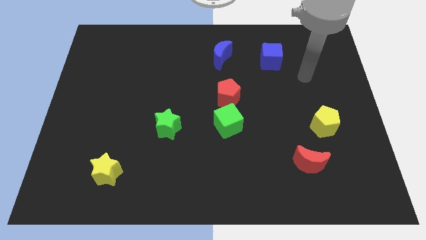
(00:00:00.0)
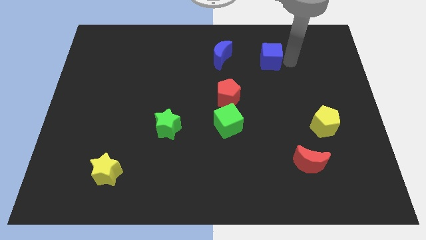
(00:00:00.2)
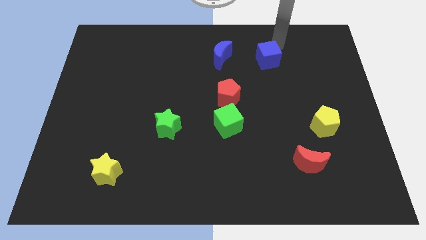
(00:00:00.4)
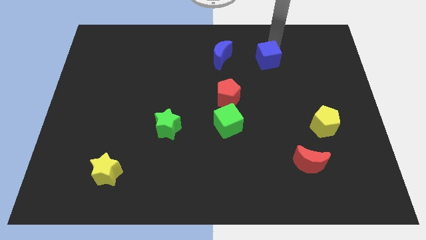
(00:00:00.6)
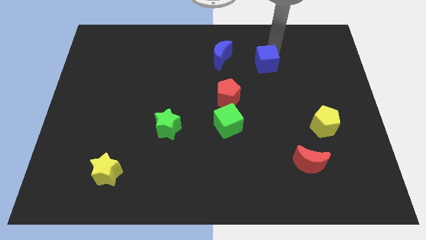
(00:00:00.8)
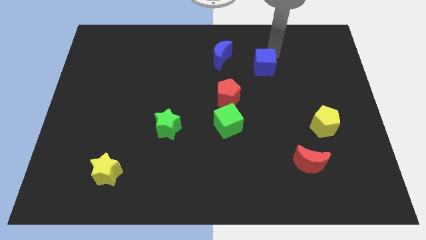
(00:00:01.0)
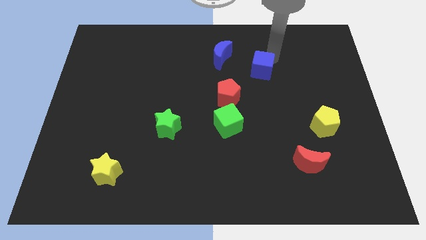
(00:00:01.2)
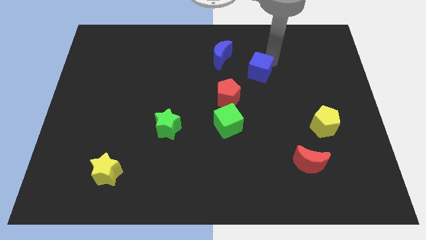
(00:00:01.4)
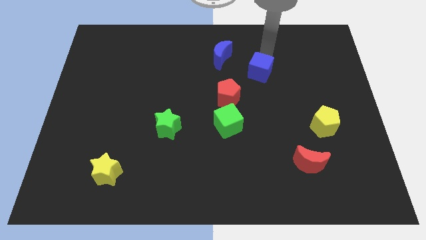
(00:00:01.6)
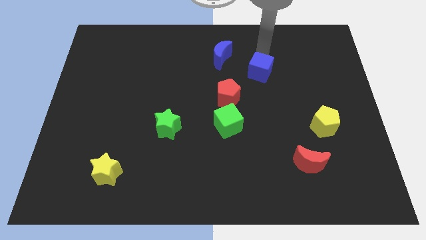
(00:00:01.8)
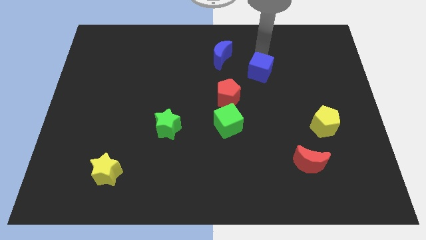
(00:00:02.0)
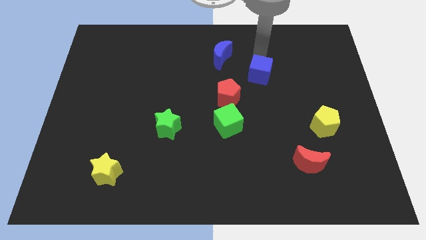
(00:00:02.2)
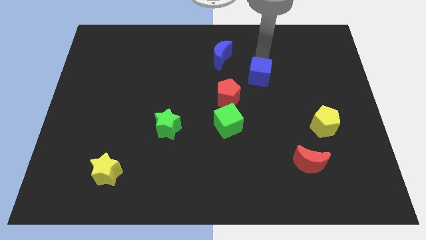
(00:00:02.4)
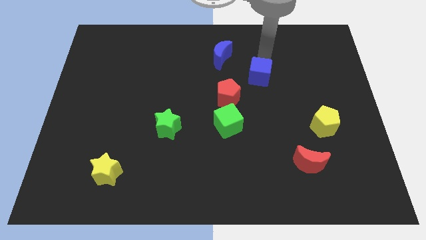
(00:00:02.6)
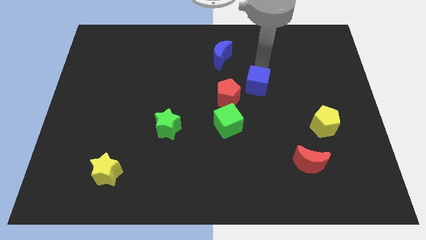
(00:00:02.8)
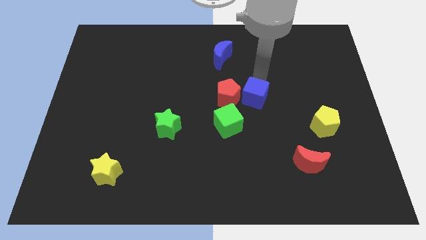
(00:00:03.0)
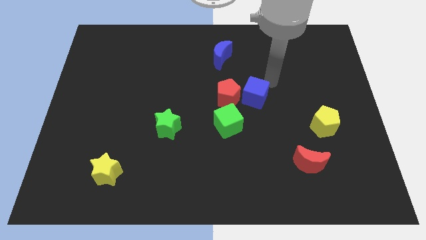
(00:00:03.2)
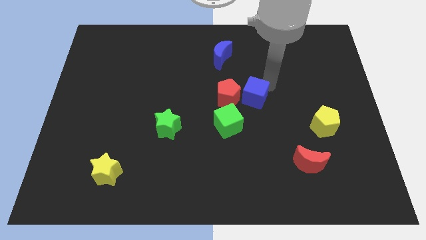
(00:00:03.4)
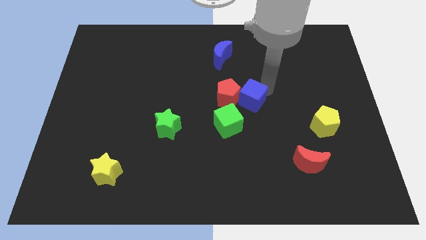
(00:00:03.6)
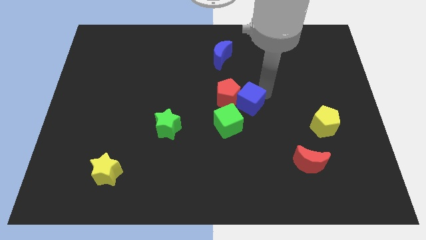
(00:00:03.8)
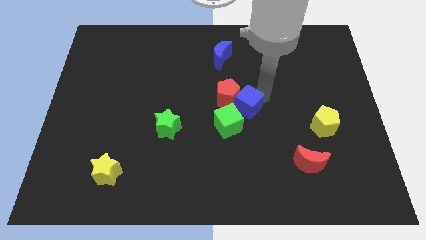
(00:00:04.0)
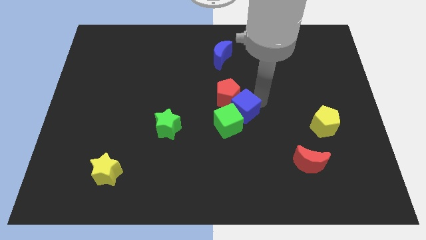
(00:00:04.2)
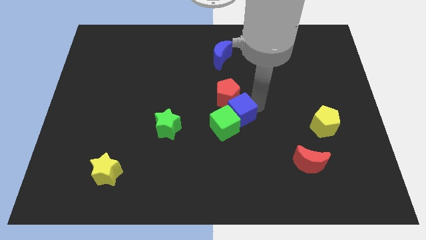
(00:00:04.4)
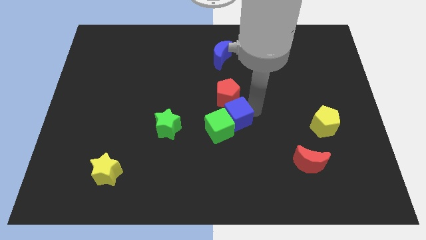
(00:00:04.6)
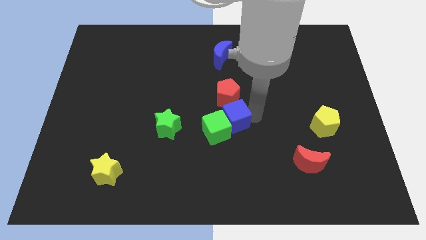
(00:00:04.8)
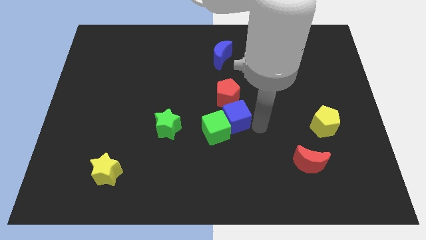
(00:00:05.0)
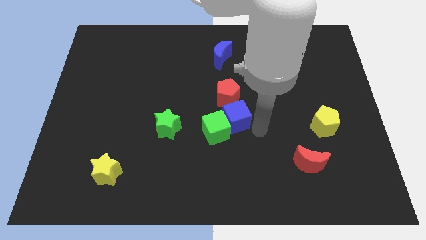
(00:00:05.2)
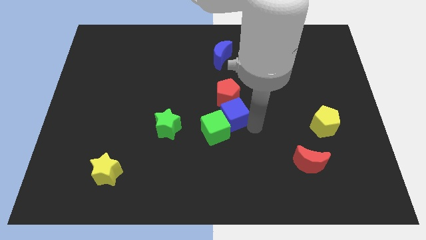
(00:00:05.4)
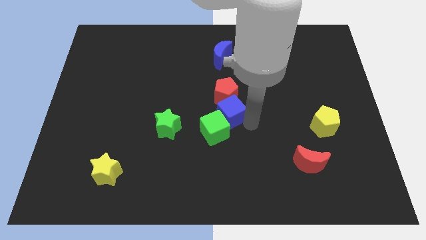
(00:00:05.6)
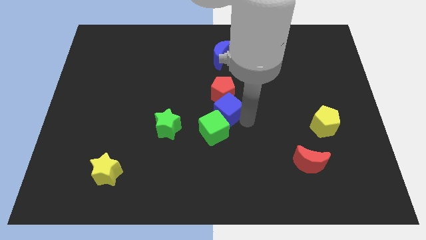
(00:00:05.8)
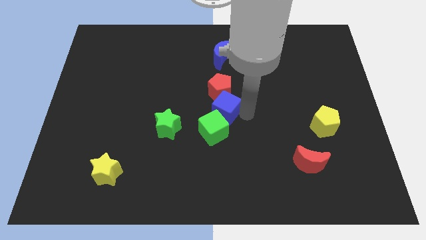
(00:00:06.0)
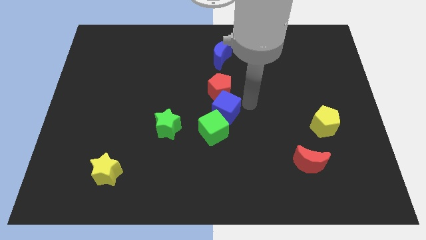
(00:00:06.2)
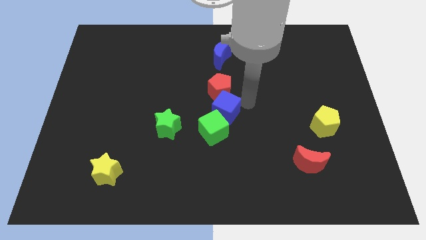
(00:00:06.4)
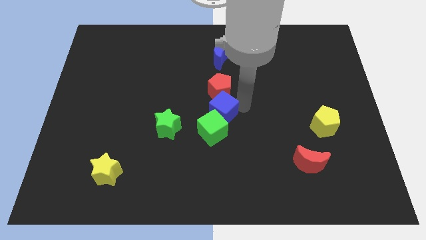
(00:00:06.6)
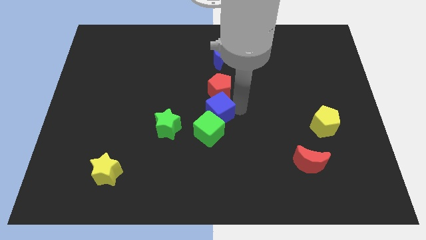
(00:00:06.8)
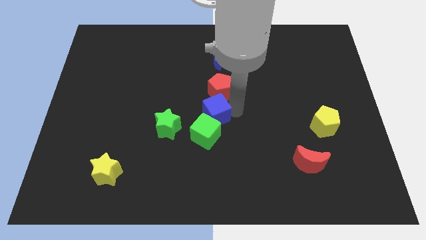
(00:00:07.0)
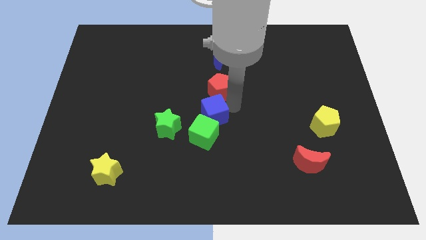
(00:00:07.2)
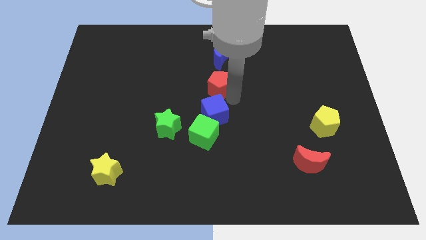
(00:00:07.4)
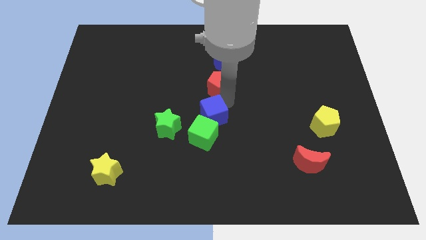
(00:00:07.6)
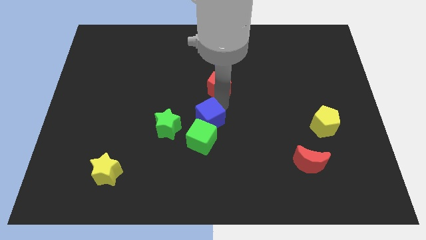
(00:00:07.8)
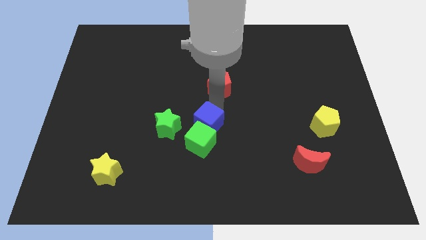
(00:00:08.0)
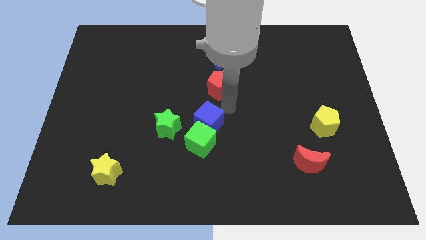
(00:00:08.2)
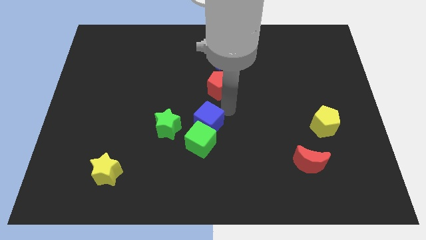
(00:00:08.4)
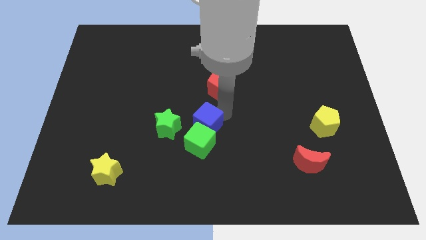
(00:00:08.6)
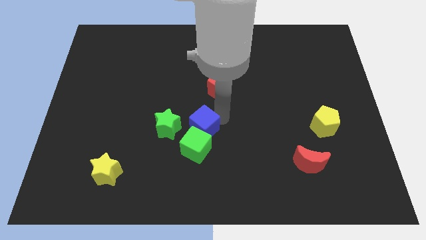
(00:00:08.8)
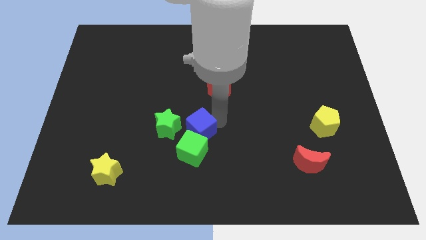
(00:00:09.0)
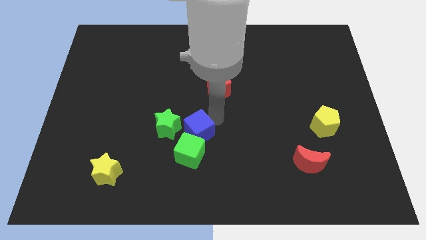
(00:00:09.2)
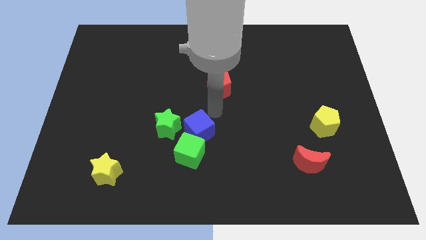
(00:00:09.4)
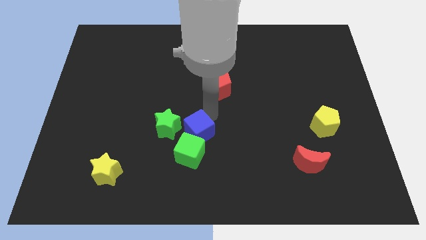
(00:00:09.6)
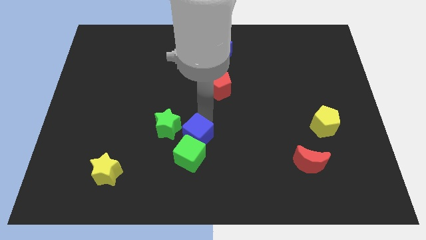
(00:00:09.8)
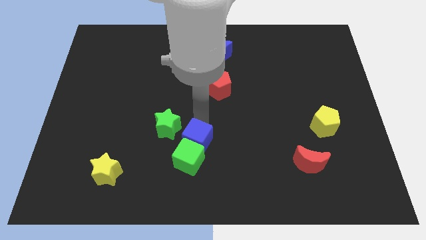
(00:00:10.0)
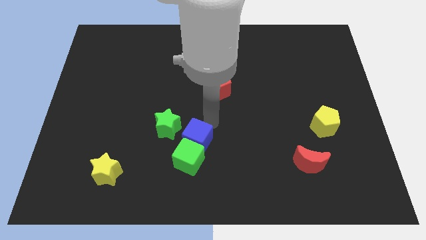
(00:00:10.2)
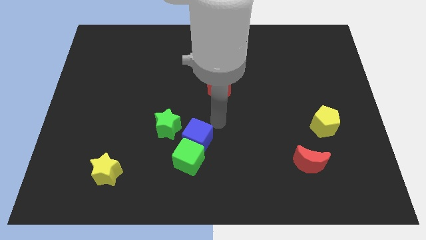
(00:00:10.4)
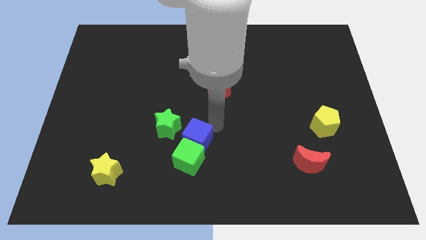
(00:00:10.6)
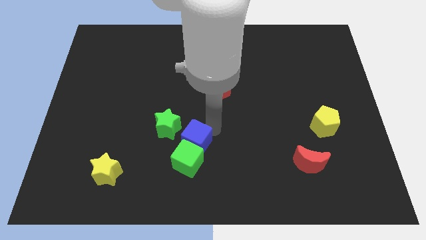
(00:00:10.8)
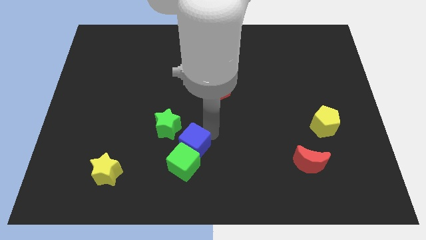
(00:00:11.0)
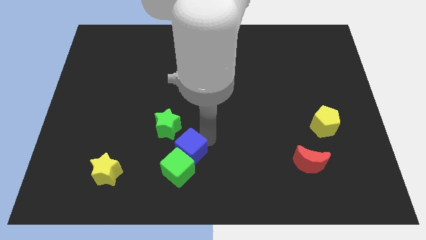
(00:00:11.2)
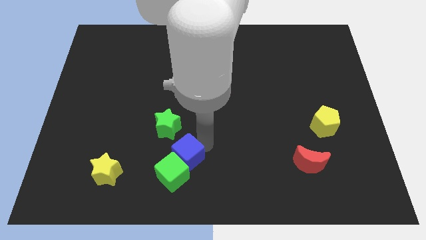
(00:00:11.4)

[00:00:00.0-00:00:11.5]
push the blue cube below the green star

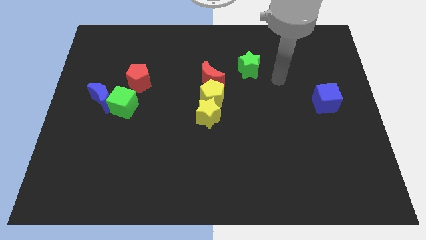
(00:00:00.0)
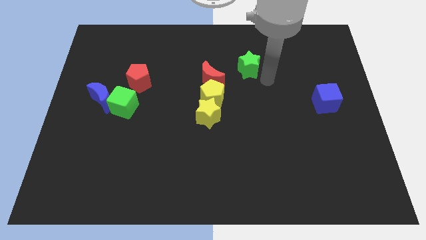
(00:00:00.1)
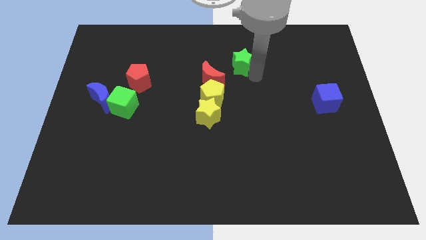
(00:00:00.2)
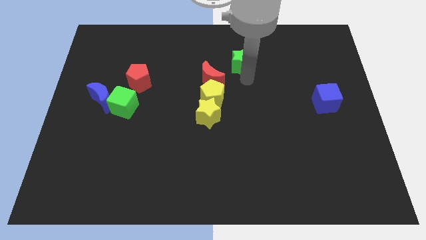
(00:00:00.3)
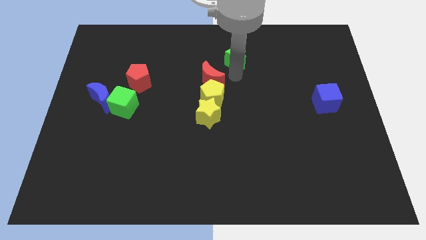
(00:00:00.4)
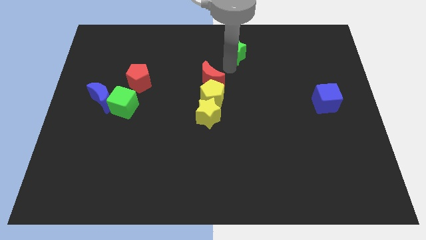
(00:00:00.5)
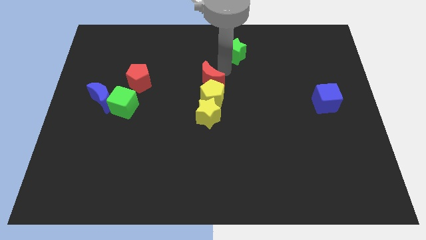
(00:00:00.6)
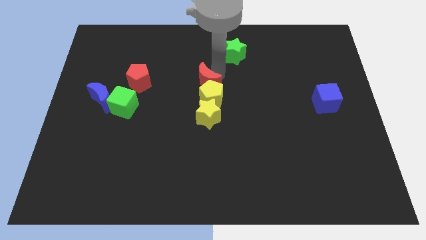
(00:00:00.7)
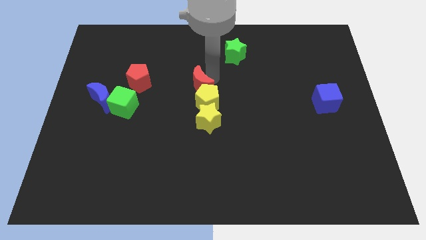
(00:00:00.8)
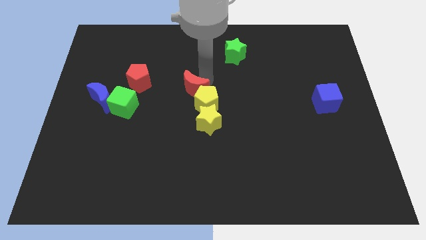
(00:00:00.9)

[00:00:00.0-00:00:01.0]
move the red moon to the top left side of the yellow star

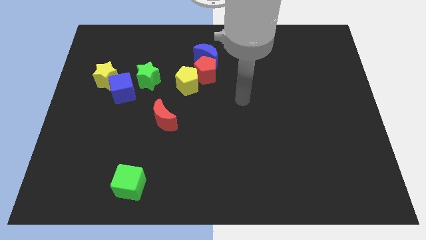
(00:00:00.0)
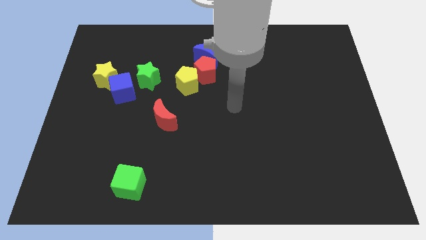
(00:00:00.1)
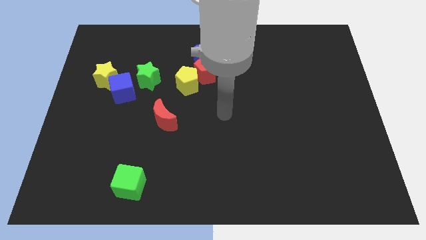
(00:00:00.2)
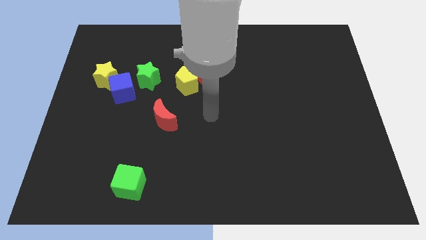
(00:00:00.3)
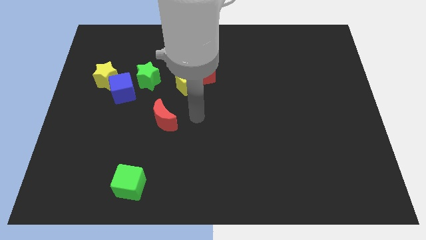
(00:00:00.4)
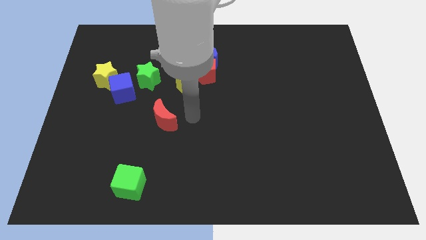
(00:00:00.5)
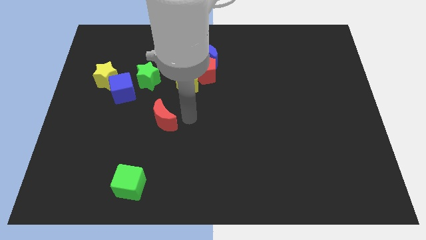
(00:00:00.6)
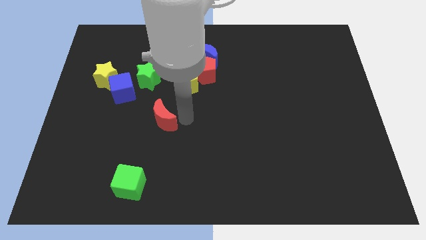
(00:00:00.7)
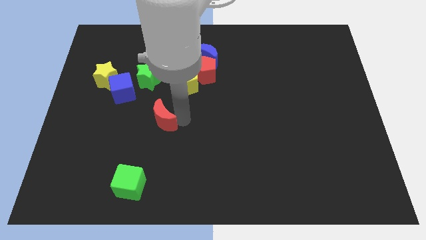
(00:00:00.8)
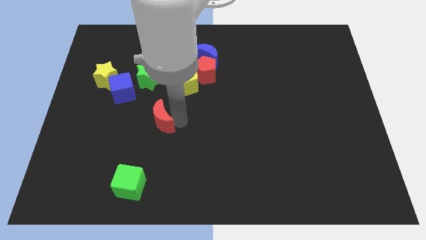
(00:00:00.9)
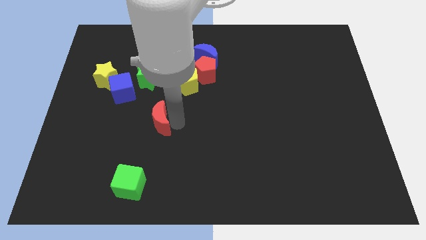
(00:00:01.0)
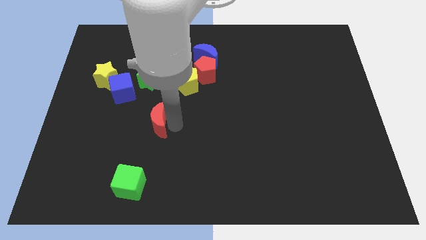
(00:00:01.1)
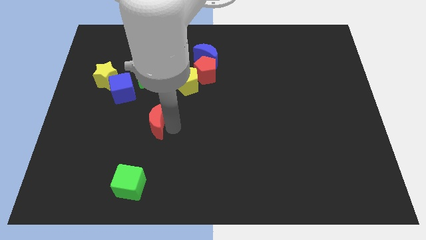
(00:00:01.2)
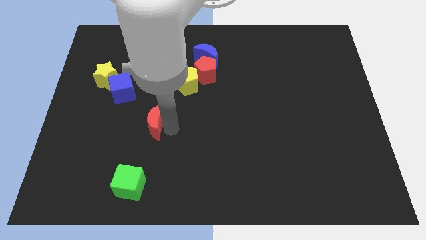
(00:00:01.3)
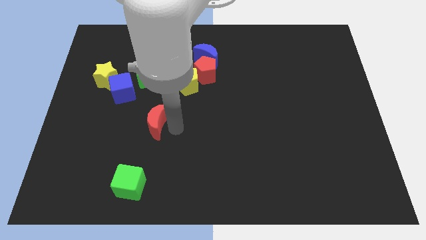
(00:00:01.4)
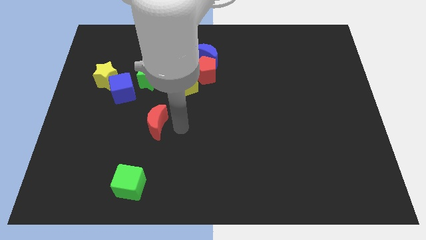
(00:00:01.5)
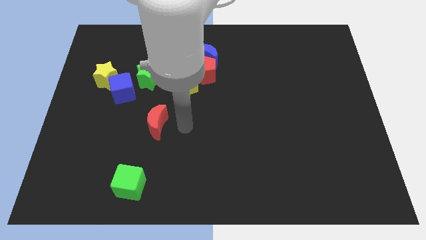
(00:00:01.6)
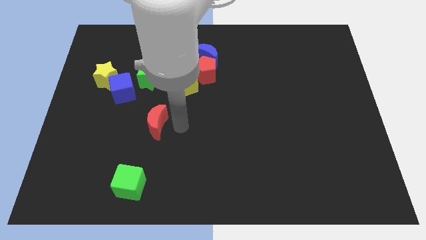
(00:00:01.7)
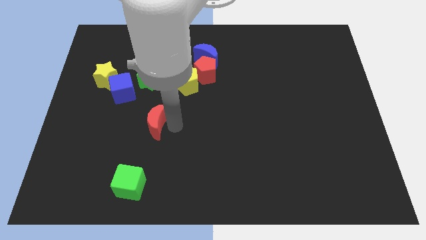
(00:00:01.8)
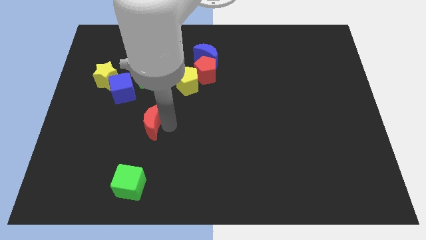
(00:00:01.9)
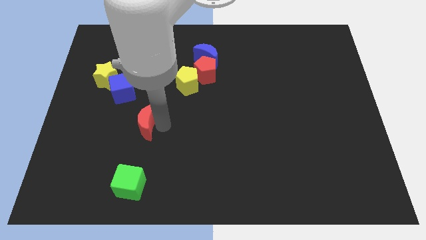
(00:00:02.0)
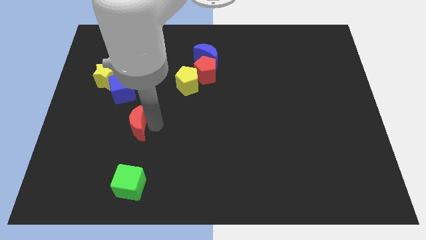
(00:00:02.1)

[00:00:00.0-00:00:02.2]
slide the red moon to the bottom side of the blue cube
